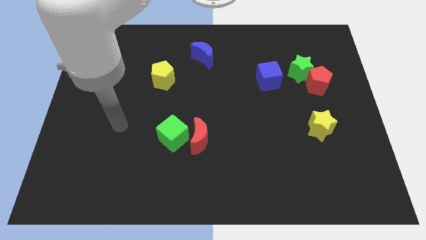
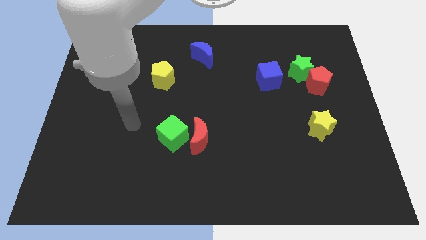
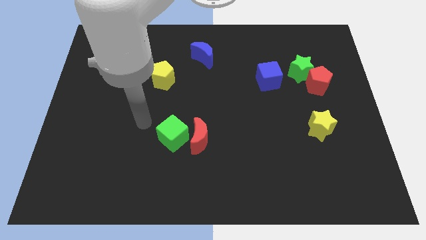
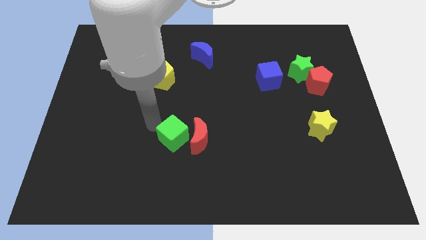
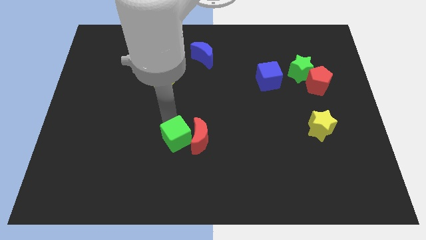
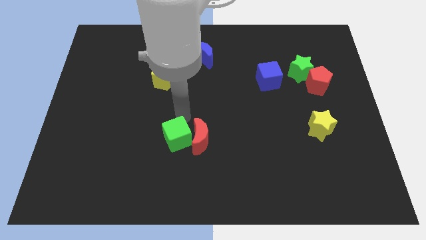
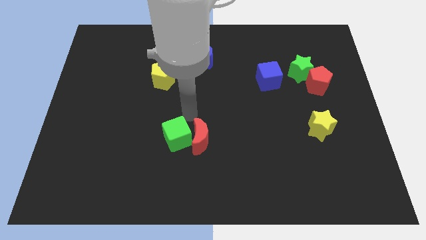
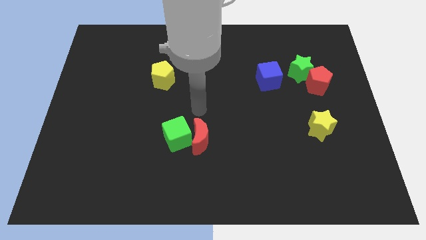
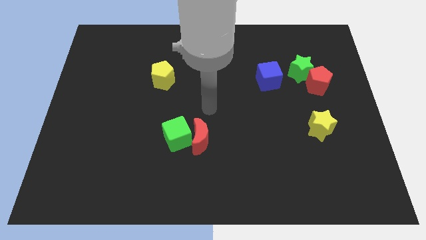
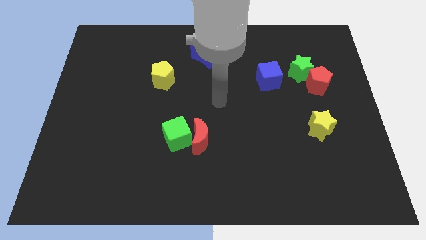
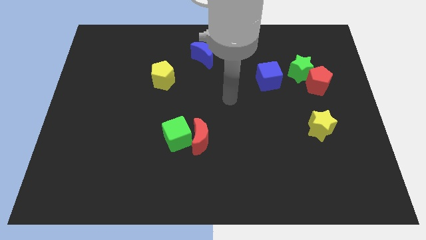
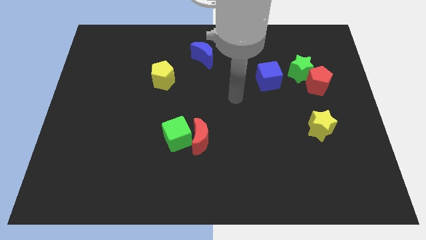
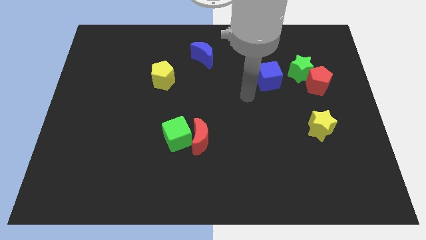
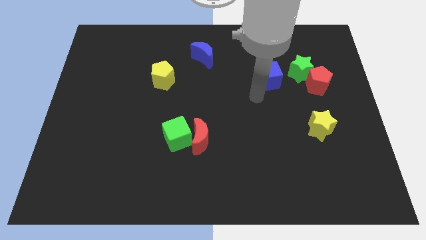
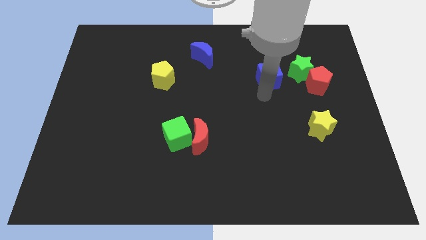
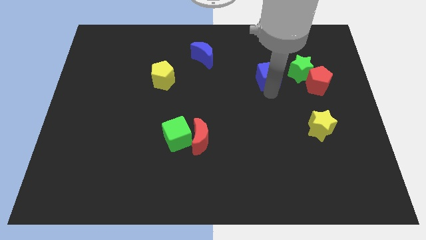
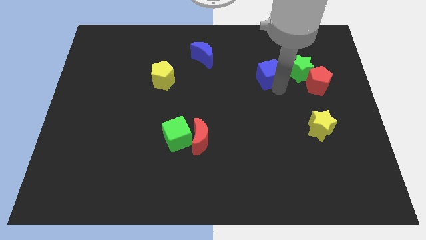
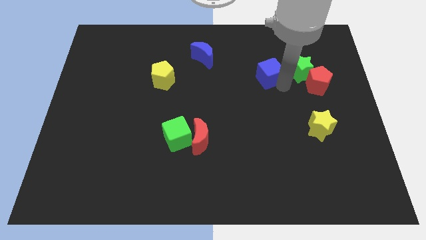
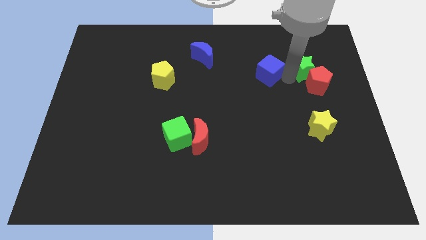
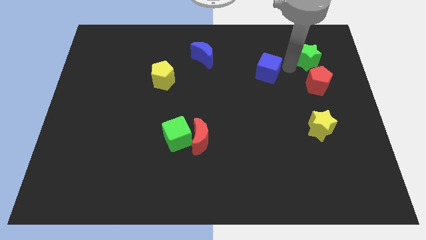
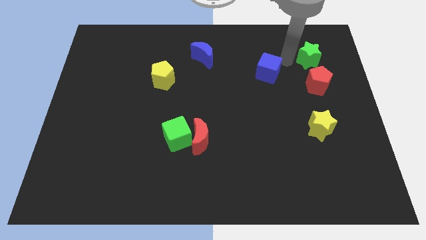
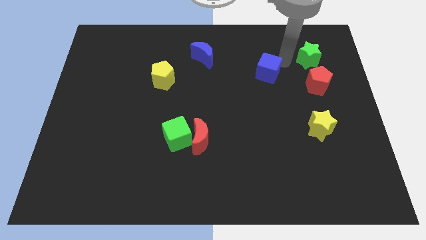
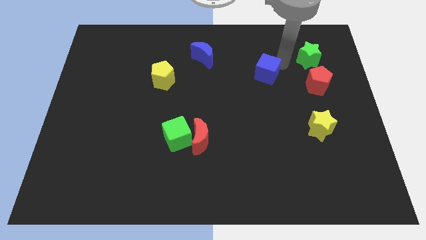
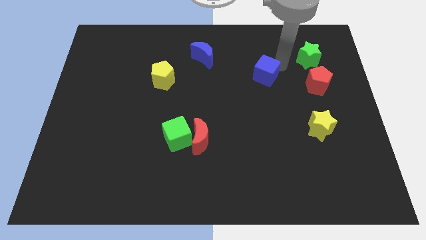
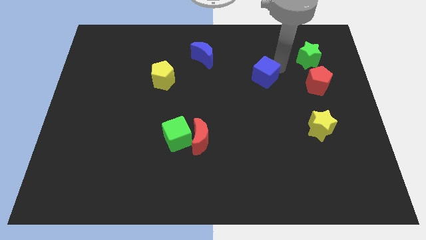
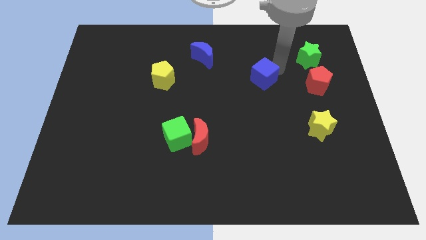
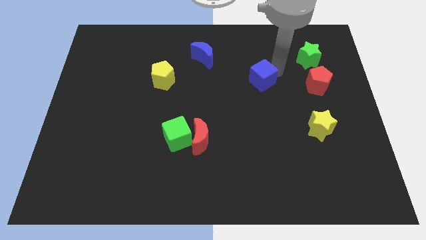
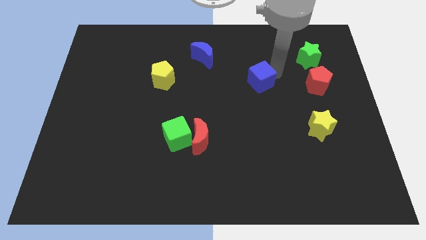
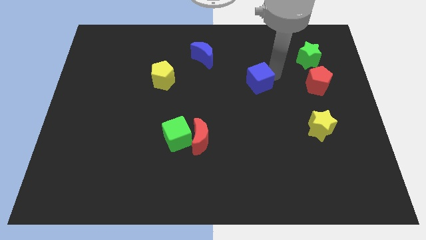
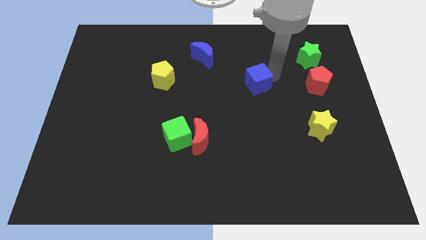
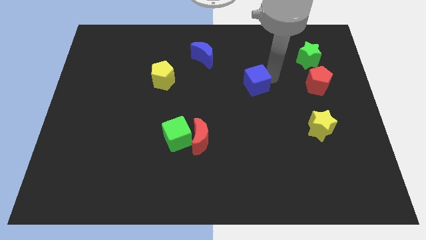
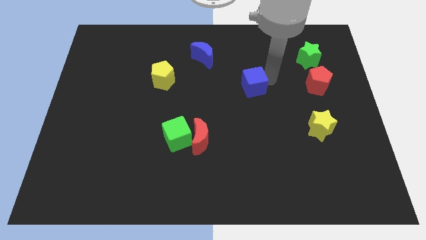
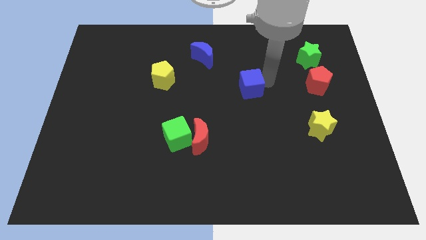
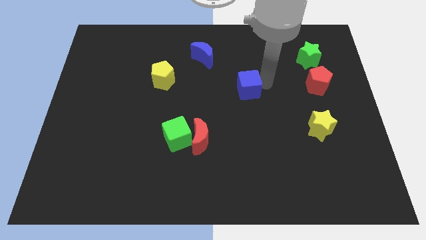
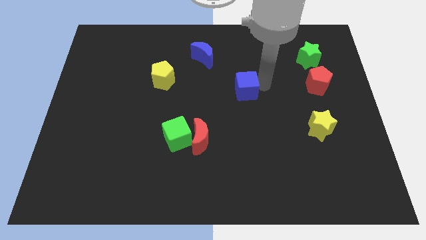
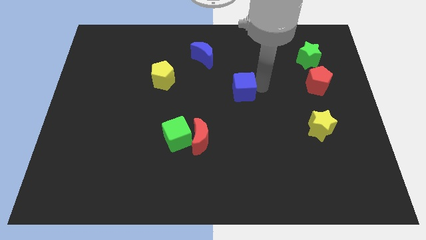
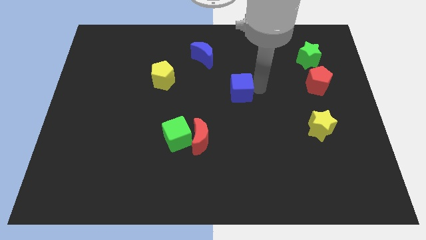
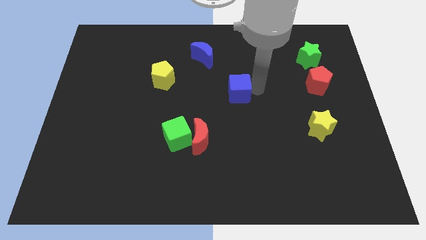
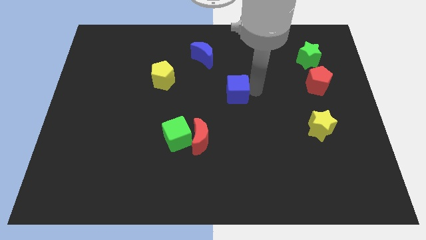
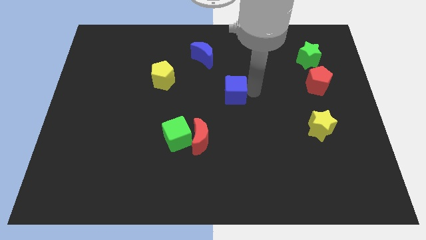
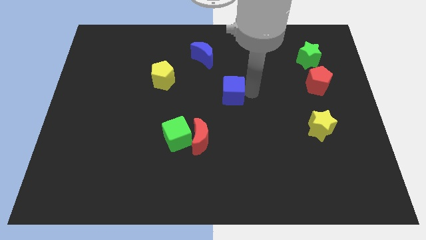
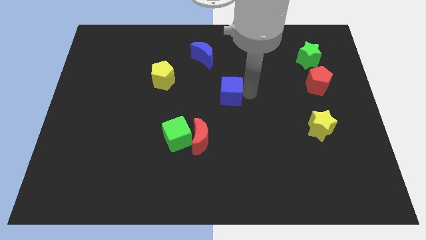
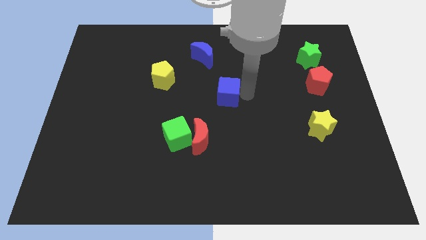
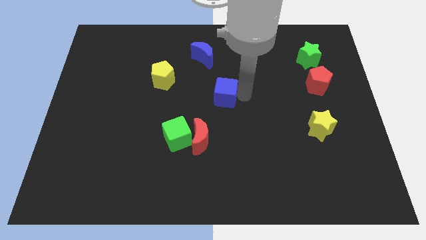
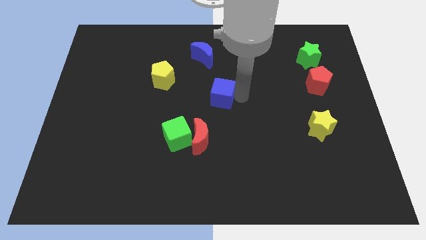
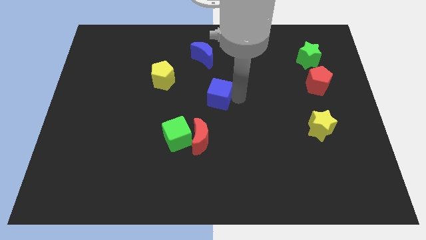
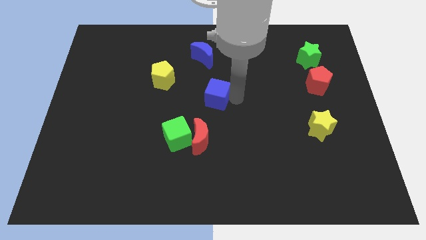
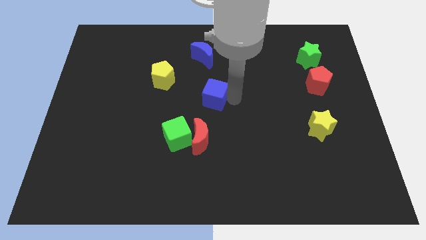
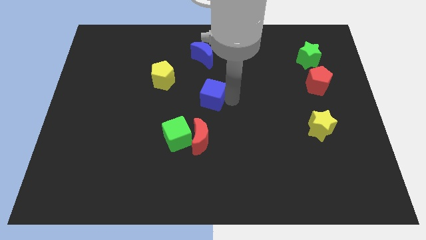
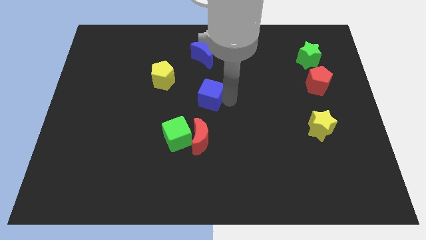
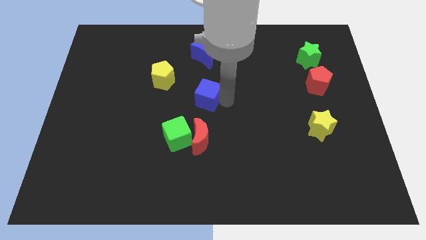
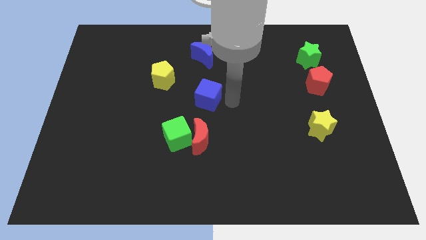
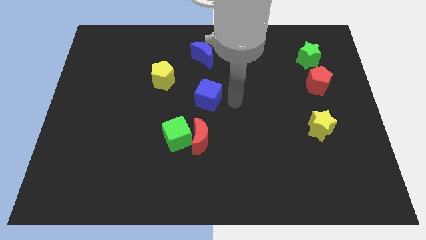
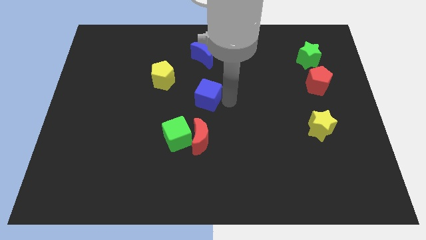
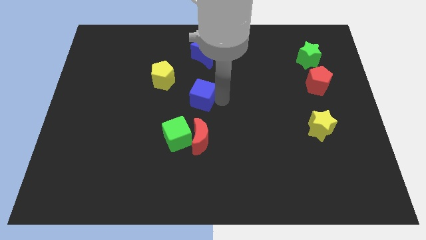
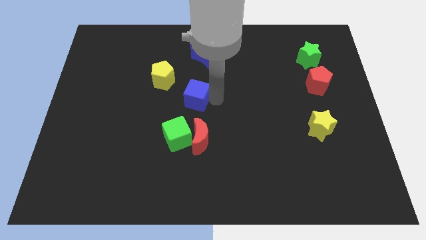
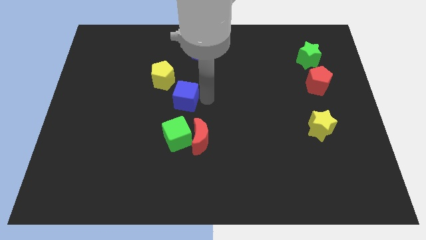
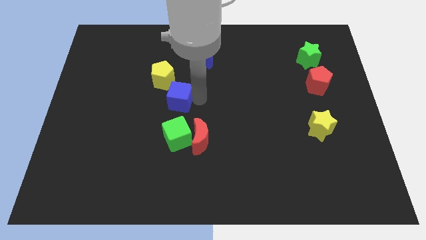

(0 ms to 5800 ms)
slide the blue cube to the left

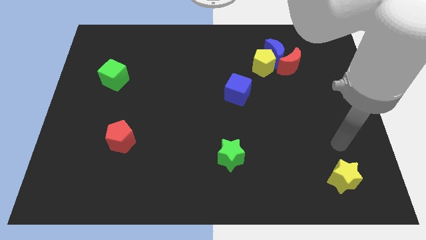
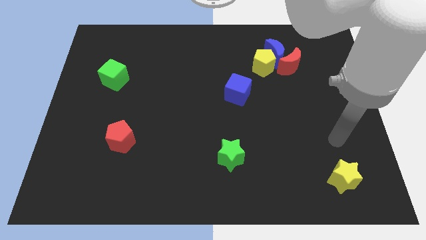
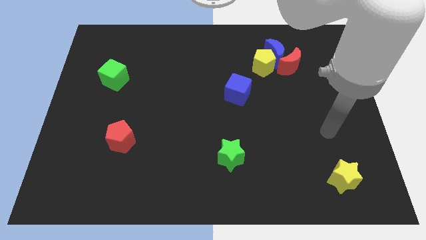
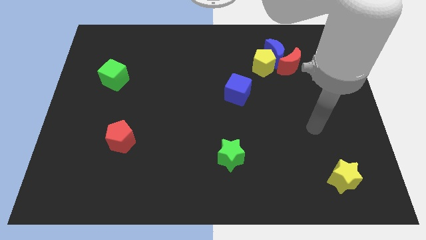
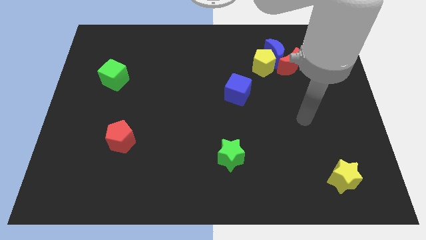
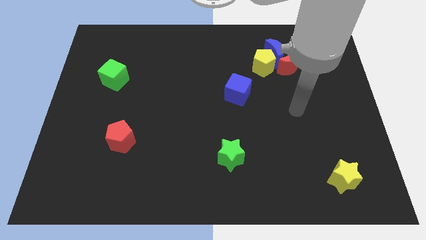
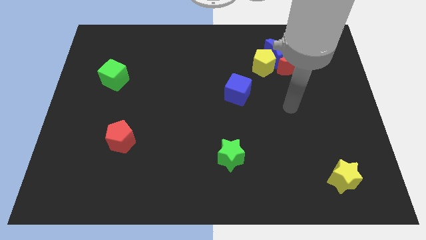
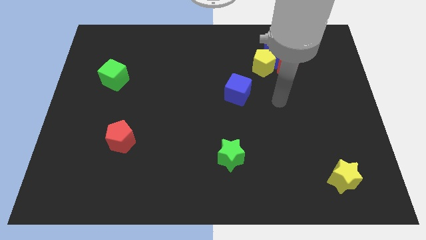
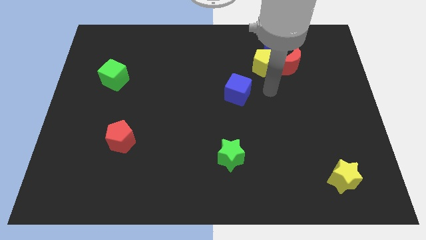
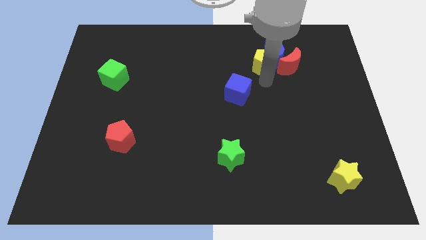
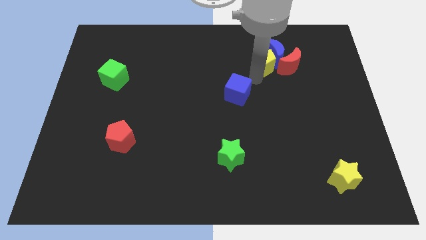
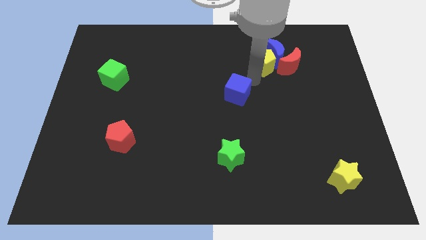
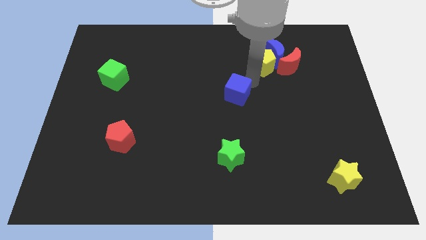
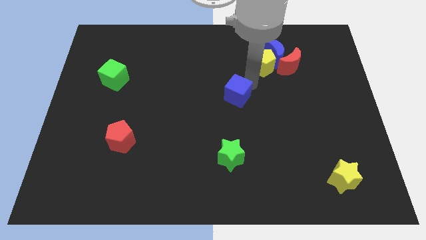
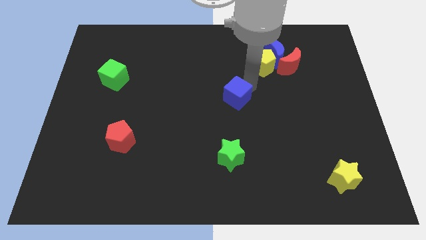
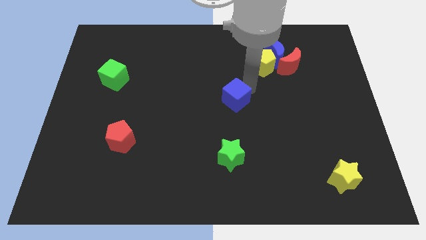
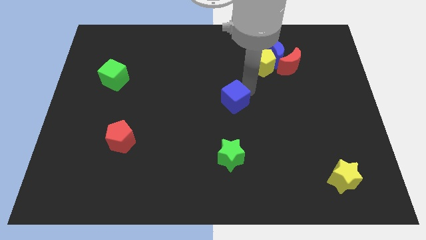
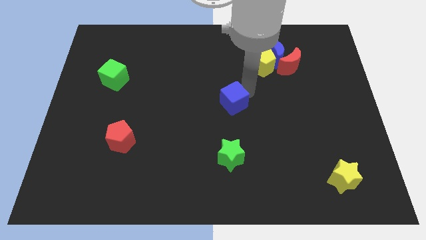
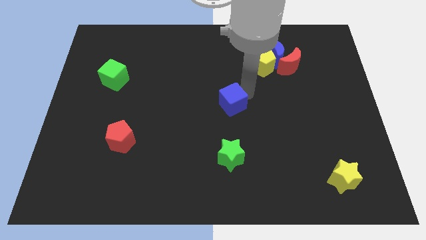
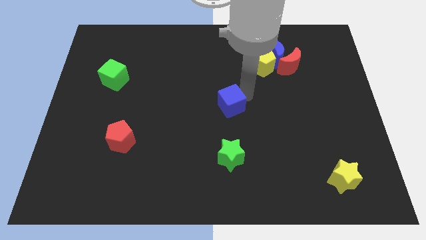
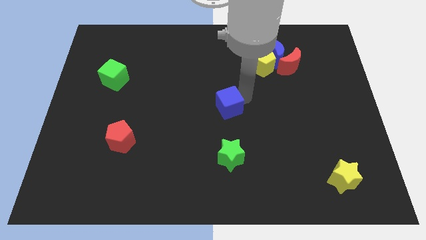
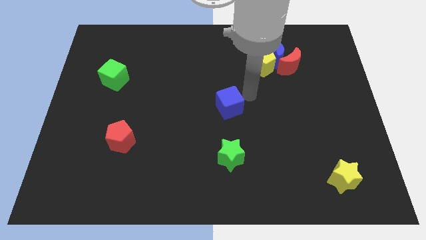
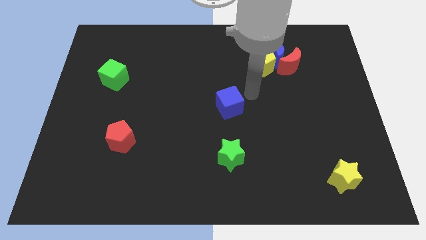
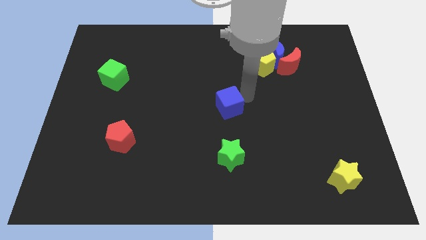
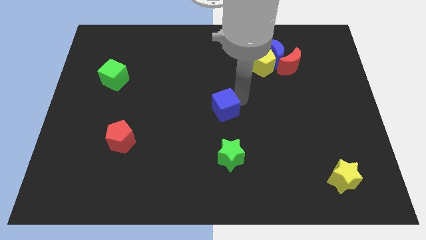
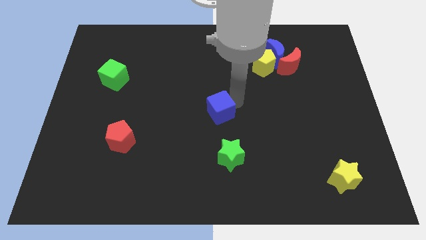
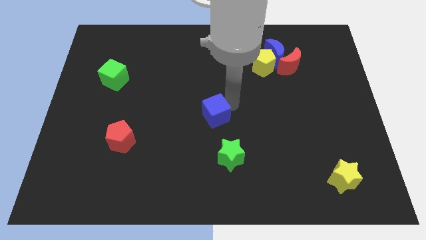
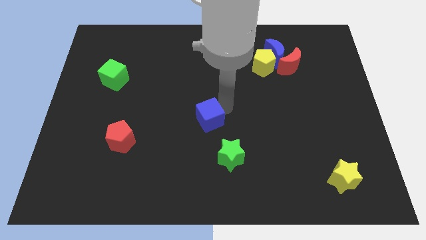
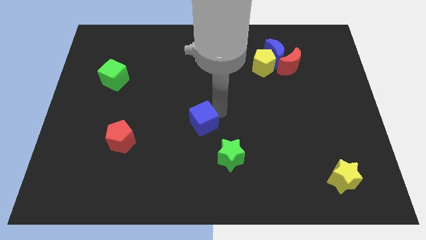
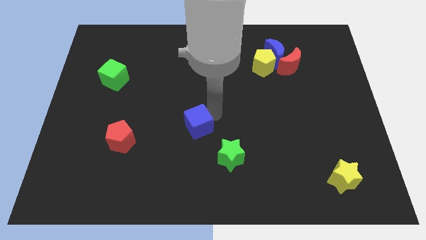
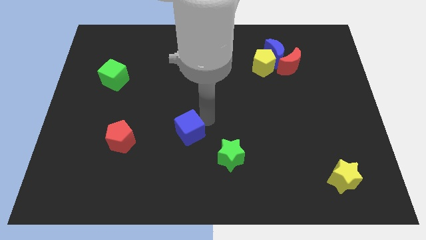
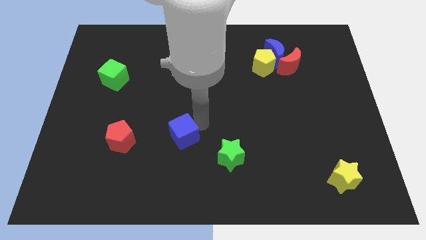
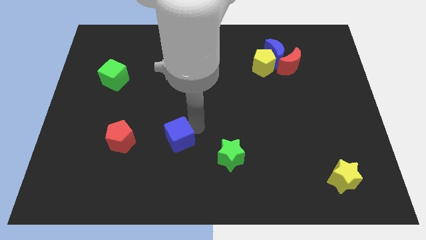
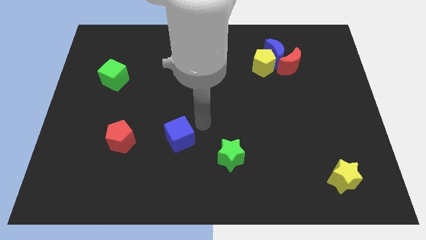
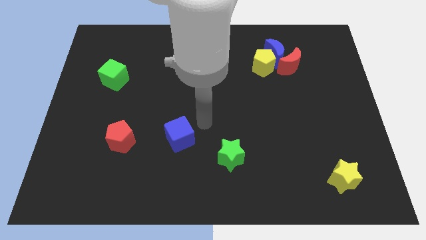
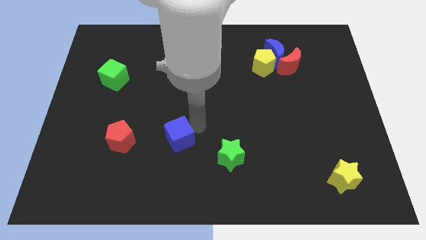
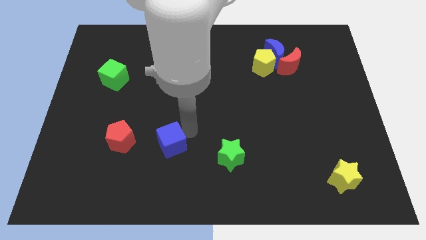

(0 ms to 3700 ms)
move the blue cube downwards and then left
